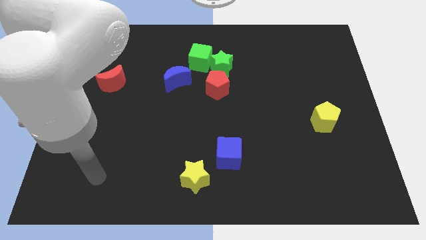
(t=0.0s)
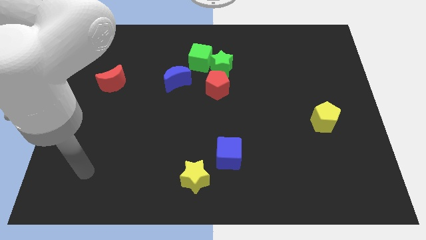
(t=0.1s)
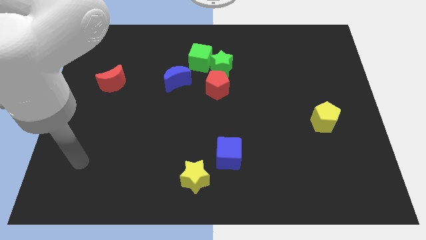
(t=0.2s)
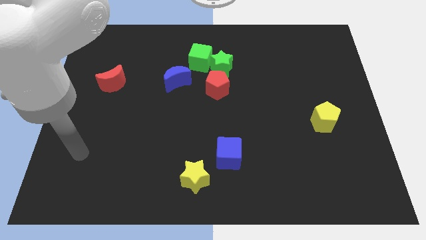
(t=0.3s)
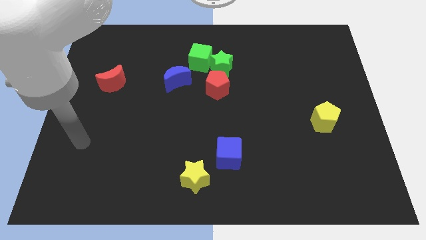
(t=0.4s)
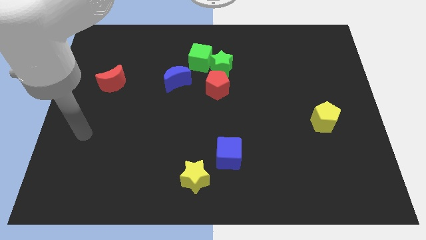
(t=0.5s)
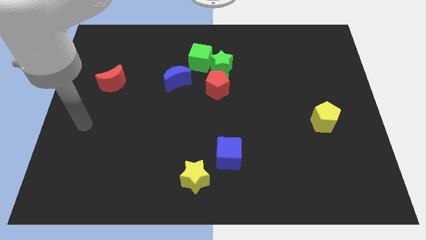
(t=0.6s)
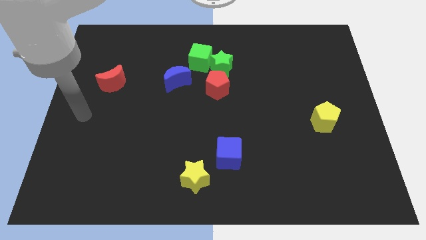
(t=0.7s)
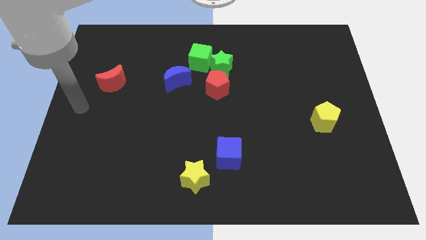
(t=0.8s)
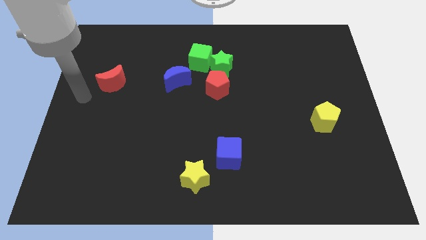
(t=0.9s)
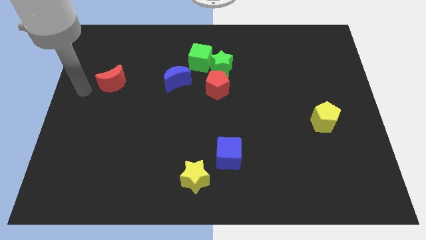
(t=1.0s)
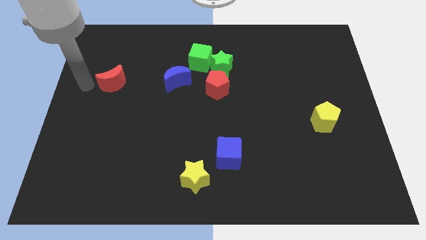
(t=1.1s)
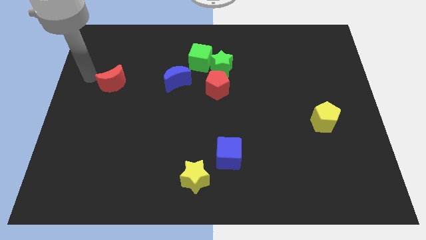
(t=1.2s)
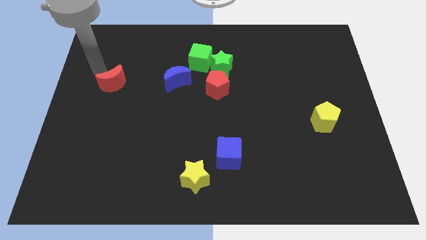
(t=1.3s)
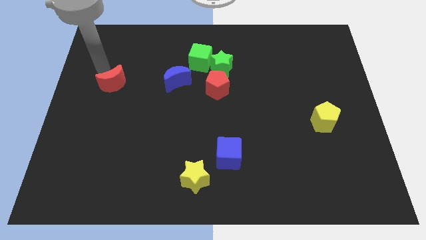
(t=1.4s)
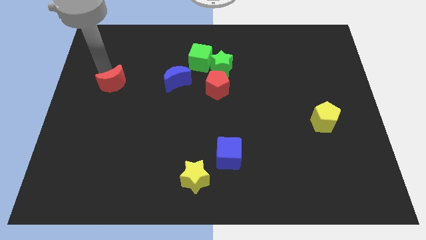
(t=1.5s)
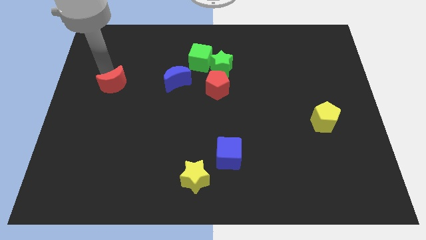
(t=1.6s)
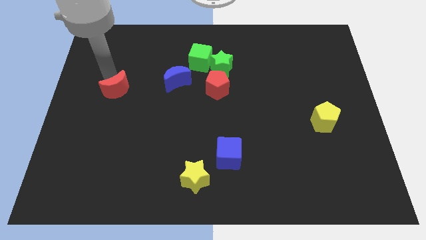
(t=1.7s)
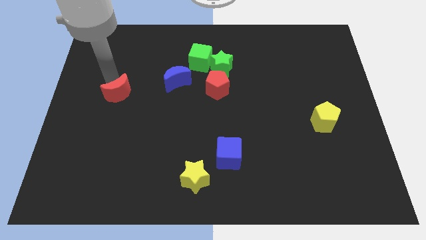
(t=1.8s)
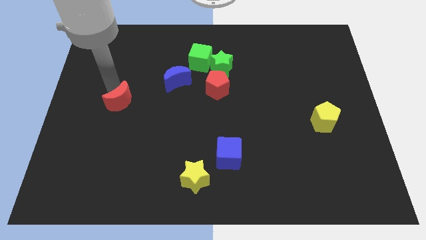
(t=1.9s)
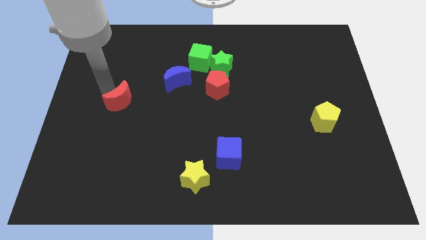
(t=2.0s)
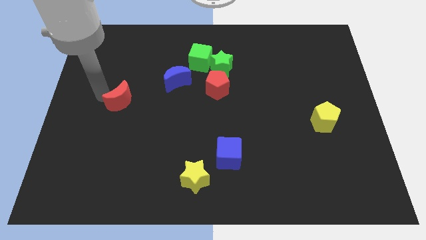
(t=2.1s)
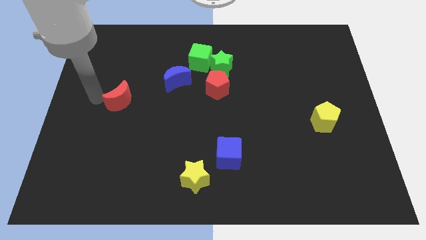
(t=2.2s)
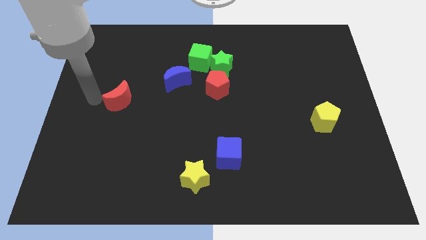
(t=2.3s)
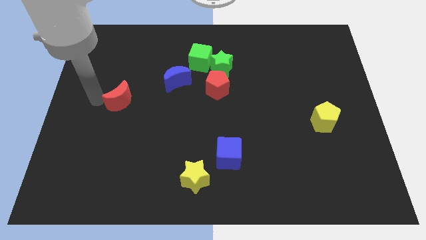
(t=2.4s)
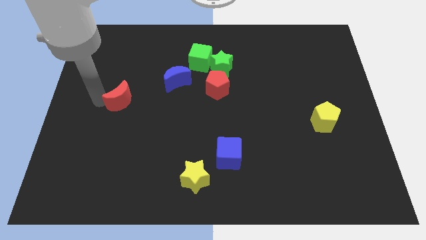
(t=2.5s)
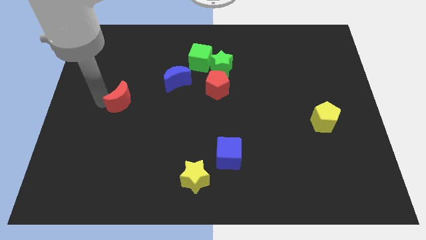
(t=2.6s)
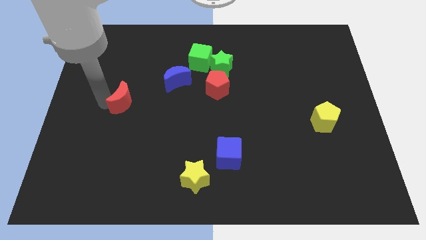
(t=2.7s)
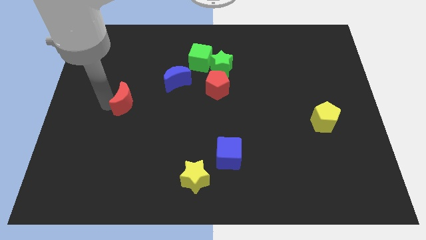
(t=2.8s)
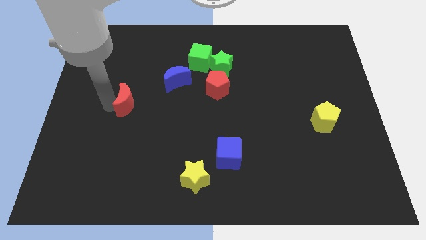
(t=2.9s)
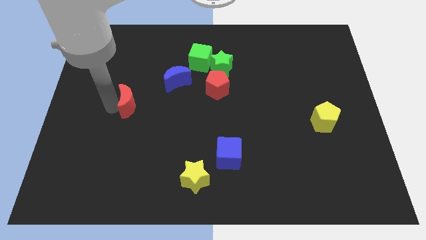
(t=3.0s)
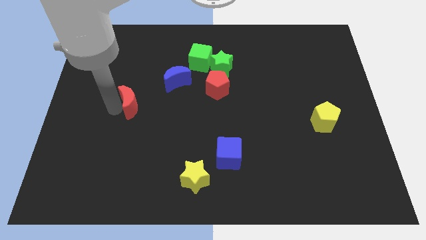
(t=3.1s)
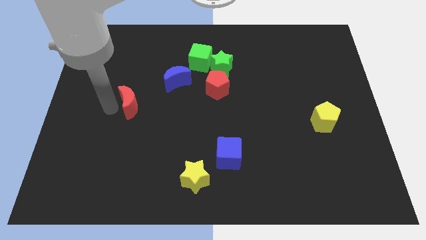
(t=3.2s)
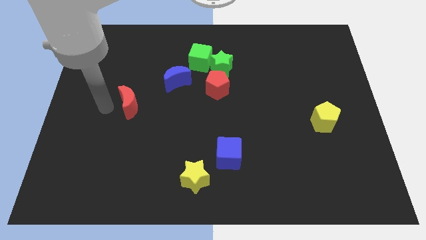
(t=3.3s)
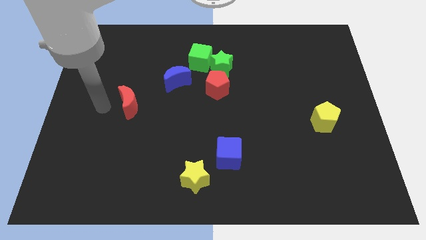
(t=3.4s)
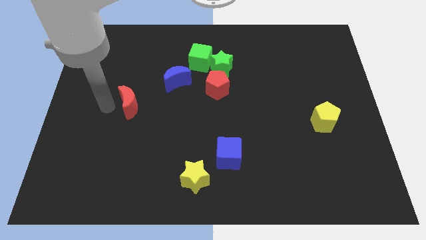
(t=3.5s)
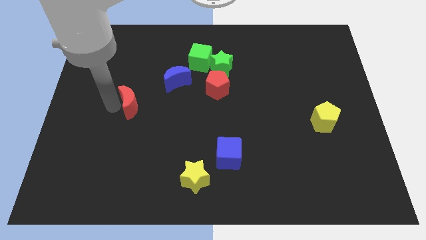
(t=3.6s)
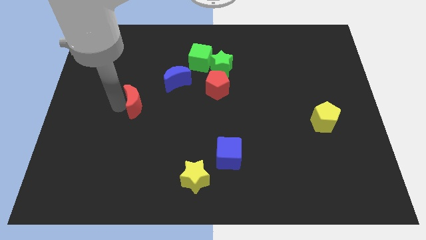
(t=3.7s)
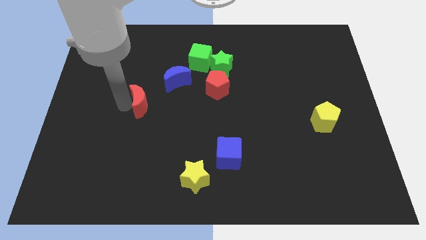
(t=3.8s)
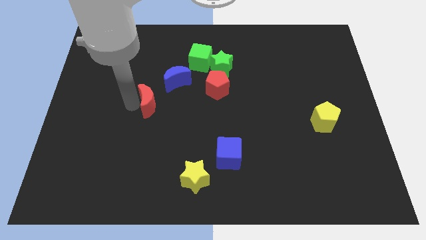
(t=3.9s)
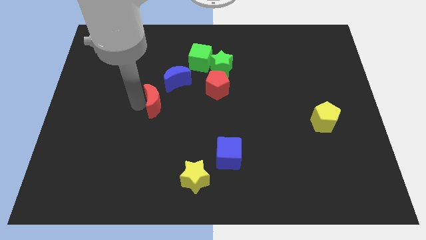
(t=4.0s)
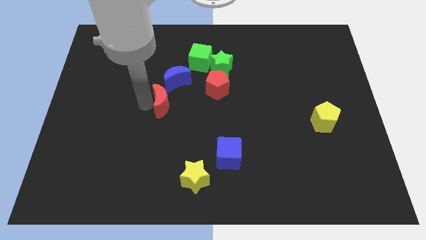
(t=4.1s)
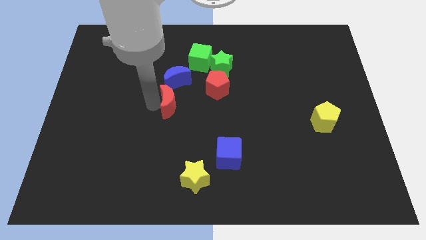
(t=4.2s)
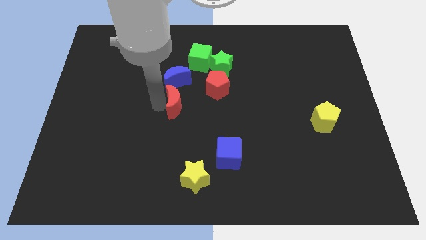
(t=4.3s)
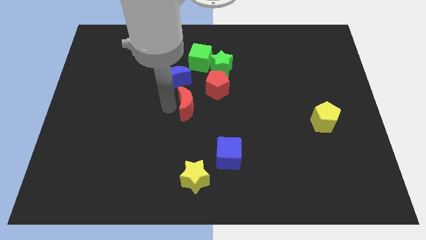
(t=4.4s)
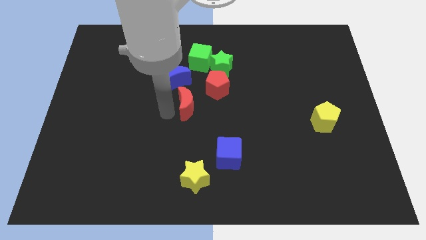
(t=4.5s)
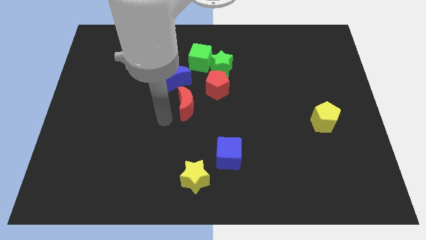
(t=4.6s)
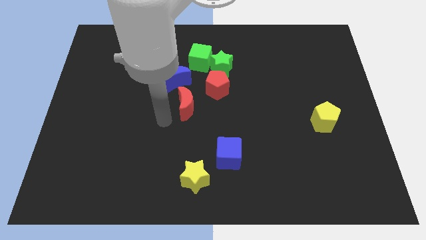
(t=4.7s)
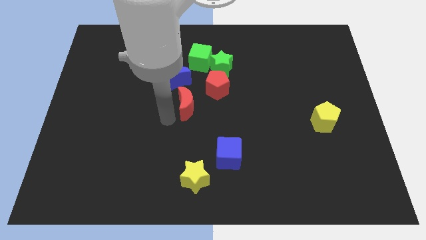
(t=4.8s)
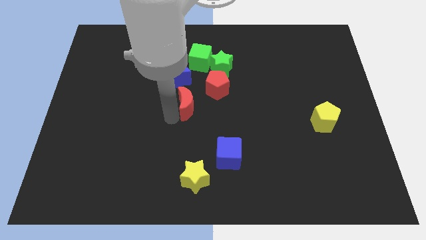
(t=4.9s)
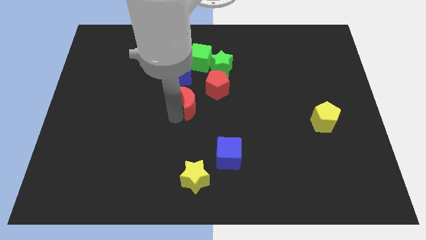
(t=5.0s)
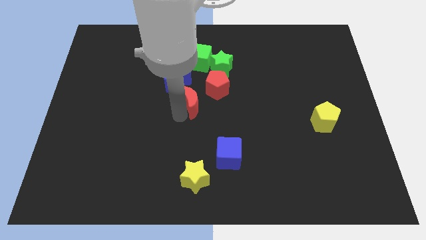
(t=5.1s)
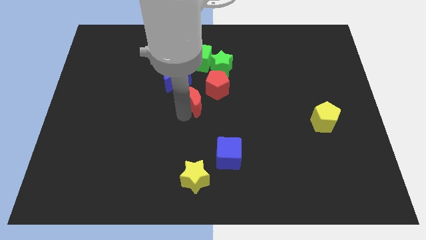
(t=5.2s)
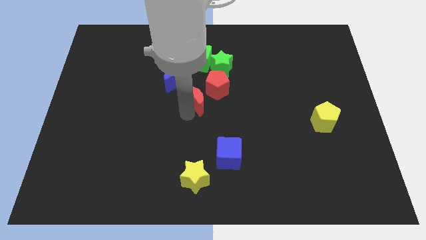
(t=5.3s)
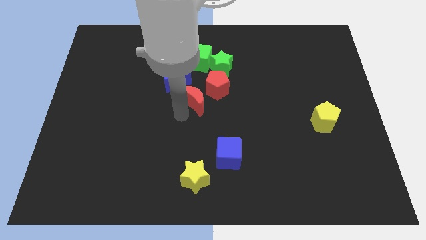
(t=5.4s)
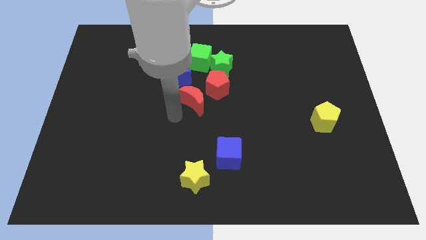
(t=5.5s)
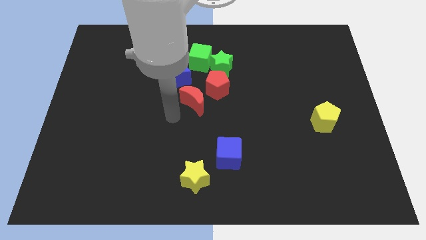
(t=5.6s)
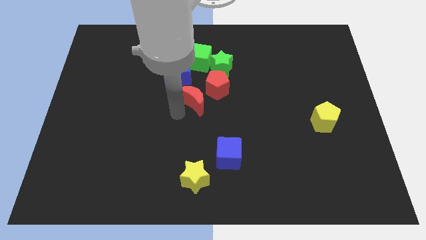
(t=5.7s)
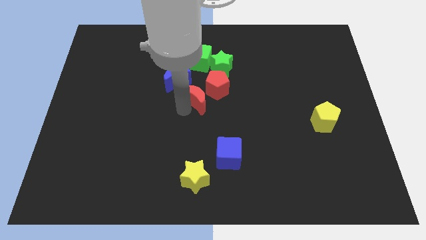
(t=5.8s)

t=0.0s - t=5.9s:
put the red moon to the red pentagon

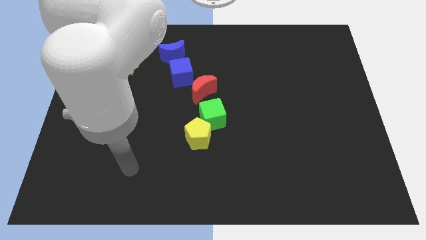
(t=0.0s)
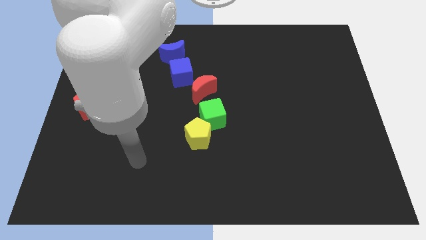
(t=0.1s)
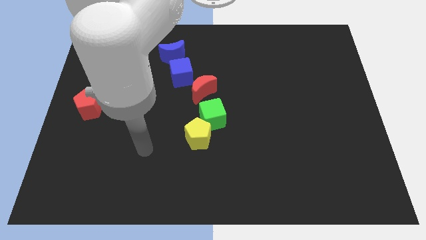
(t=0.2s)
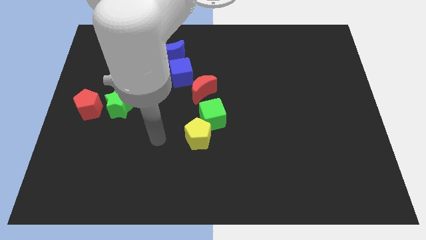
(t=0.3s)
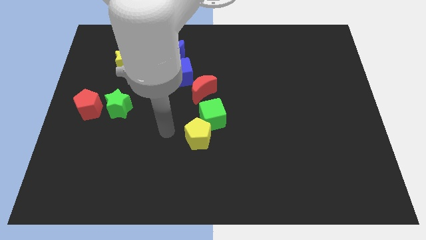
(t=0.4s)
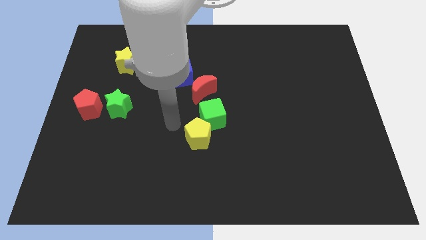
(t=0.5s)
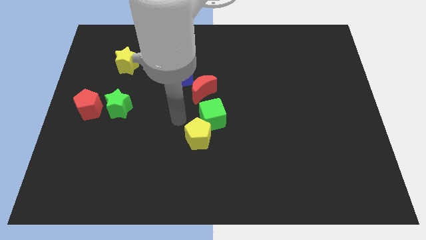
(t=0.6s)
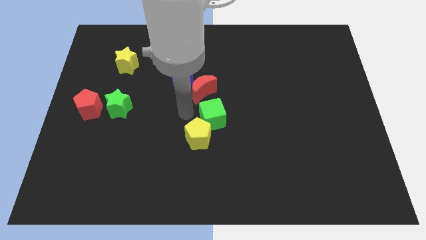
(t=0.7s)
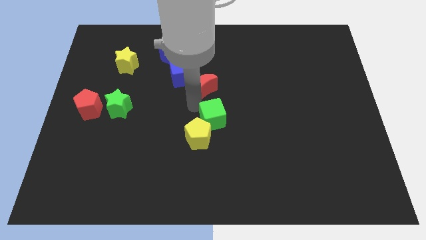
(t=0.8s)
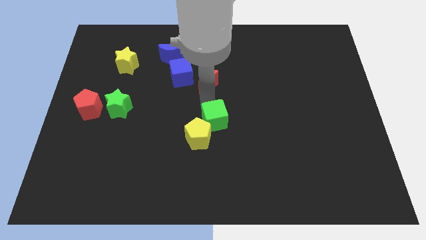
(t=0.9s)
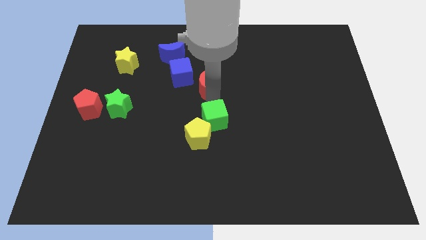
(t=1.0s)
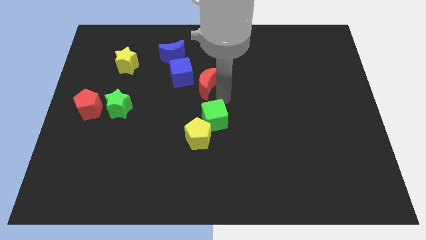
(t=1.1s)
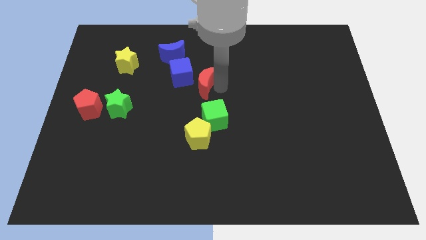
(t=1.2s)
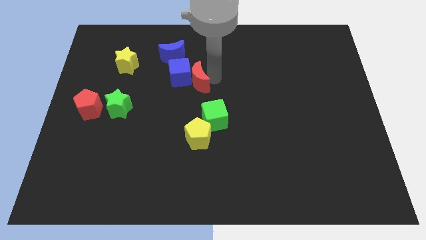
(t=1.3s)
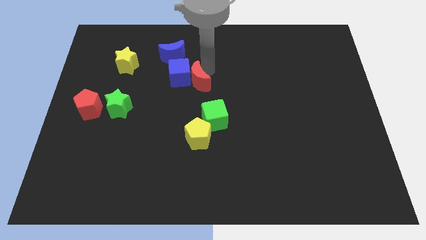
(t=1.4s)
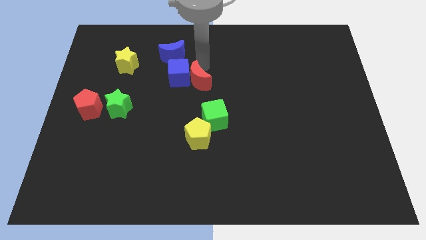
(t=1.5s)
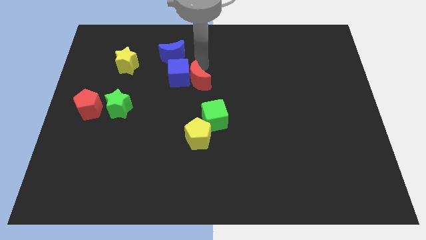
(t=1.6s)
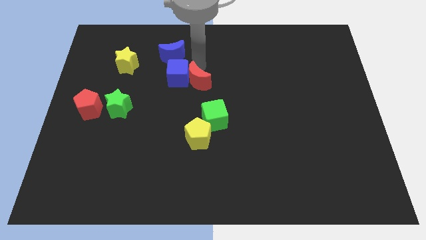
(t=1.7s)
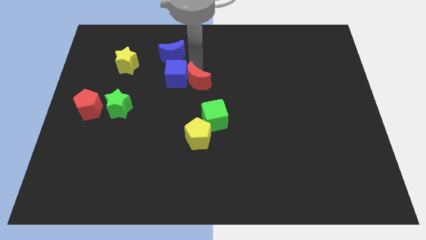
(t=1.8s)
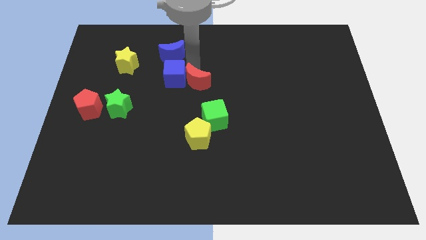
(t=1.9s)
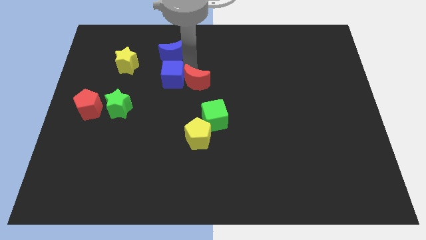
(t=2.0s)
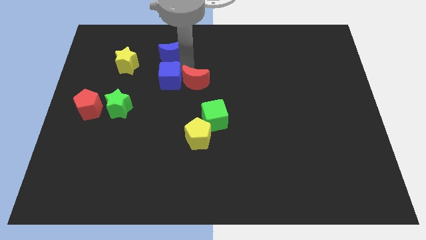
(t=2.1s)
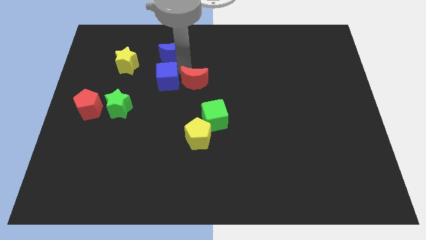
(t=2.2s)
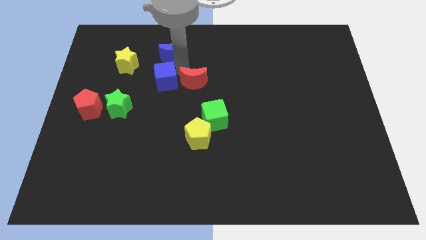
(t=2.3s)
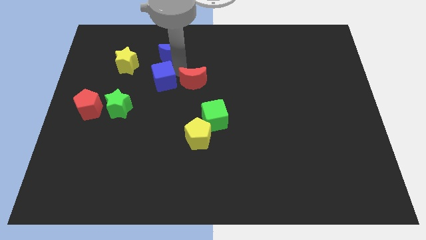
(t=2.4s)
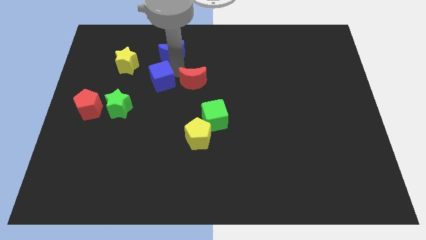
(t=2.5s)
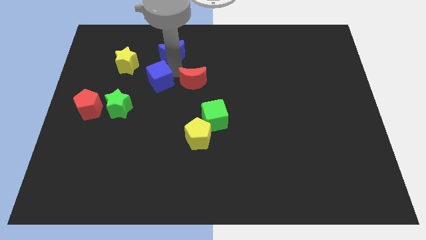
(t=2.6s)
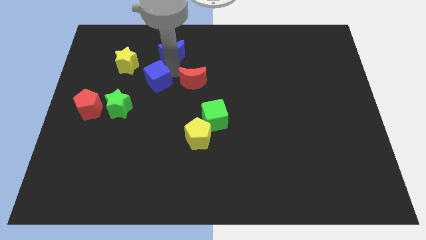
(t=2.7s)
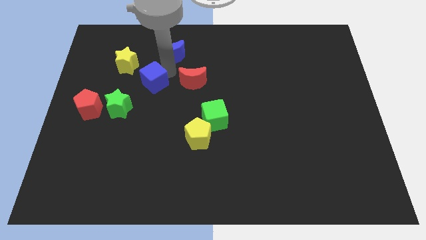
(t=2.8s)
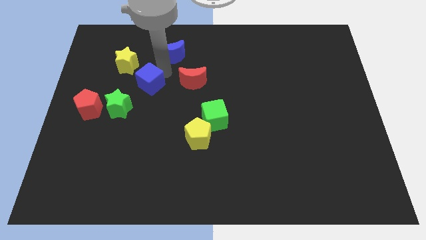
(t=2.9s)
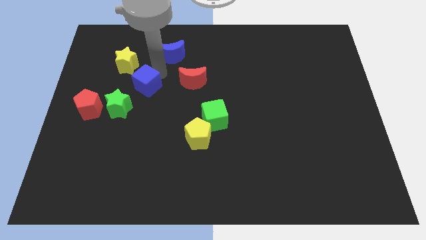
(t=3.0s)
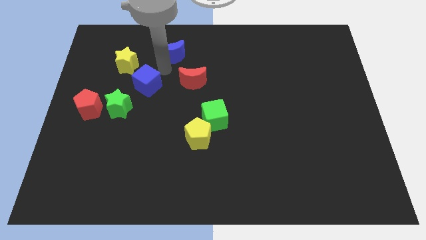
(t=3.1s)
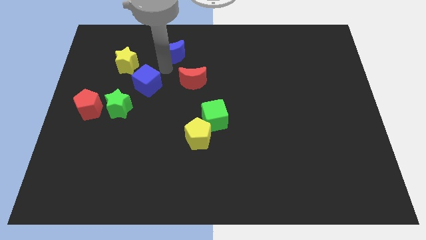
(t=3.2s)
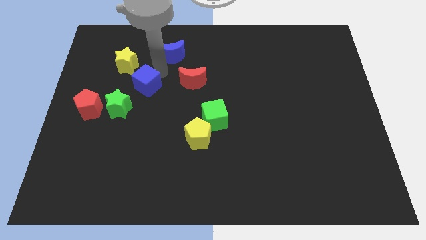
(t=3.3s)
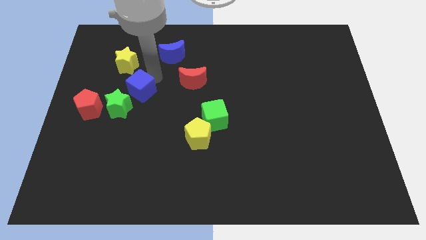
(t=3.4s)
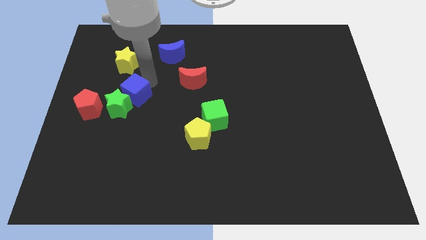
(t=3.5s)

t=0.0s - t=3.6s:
put the blue cube next to the green star
